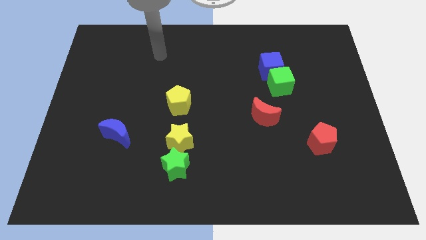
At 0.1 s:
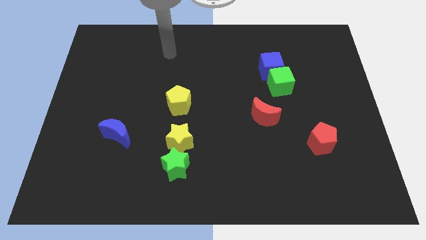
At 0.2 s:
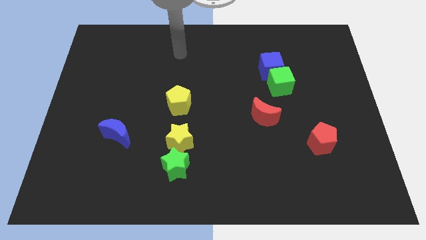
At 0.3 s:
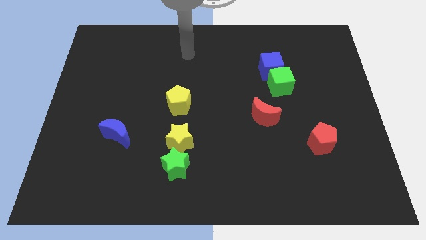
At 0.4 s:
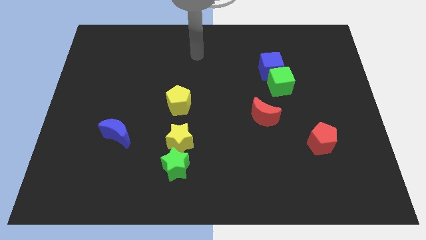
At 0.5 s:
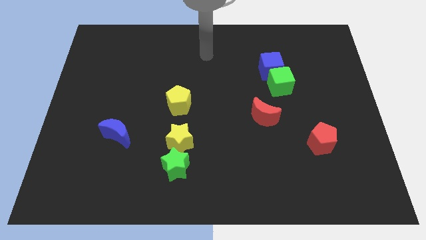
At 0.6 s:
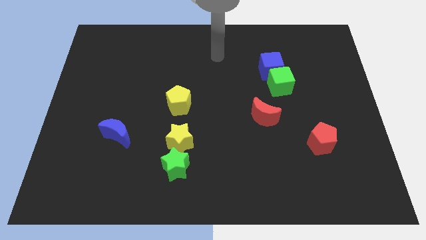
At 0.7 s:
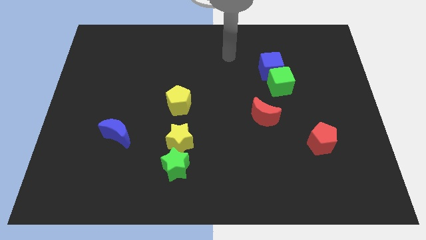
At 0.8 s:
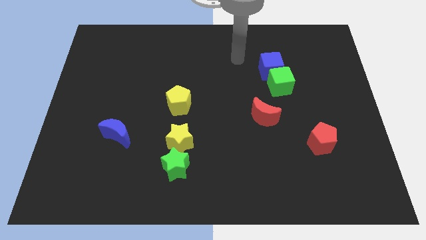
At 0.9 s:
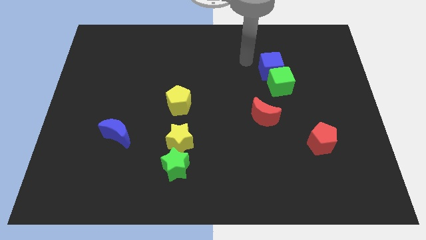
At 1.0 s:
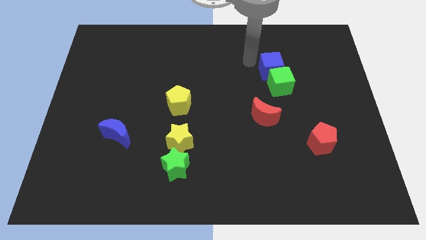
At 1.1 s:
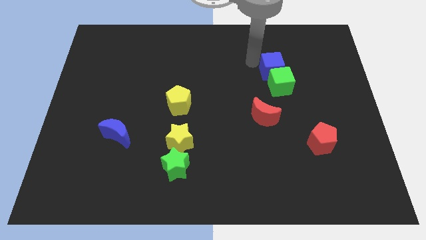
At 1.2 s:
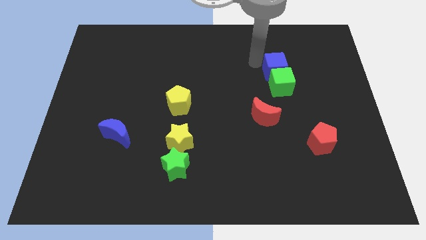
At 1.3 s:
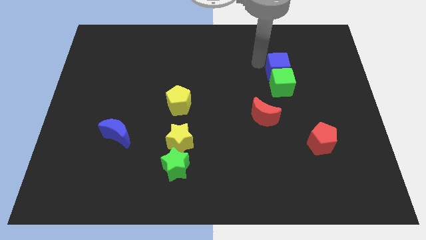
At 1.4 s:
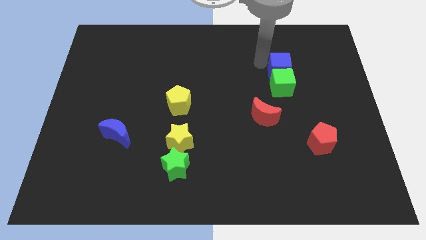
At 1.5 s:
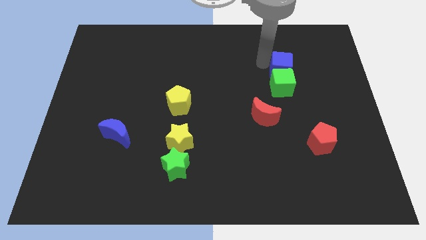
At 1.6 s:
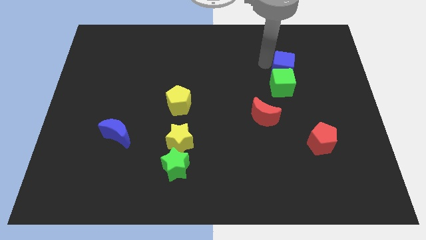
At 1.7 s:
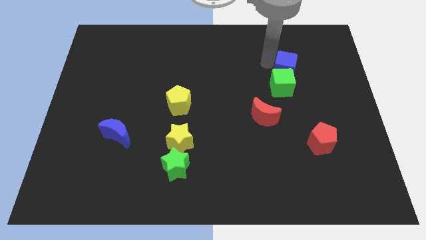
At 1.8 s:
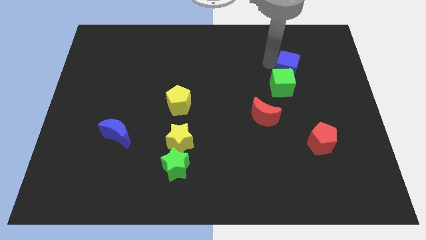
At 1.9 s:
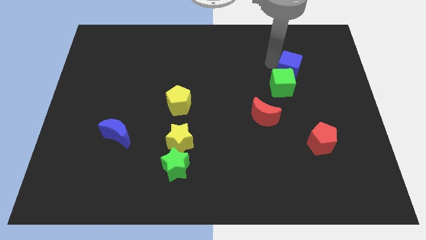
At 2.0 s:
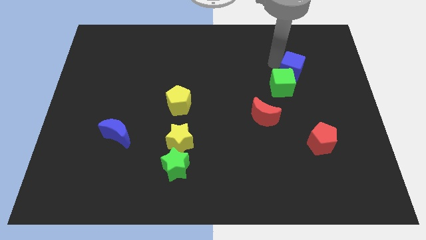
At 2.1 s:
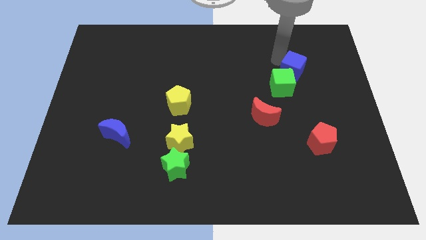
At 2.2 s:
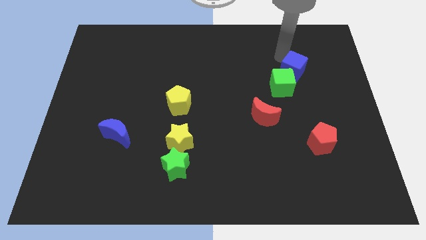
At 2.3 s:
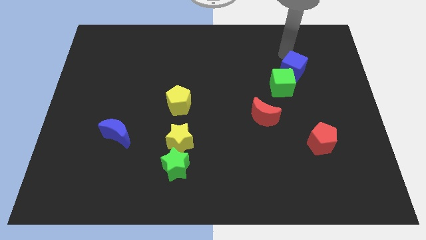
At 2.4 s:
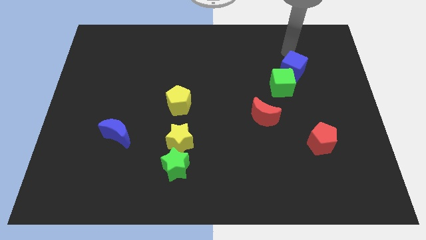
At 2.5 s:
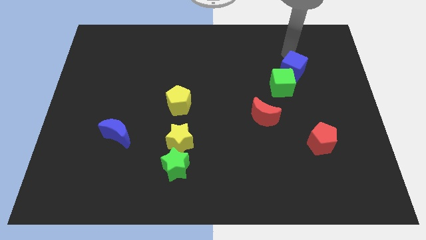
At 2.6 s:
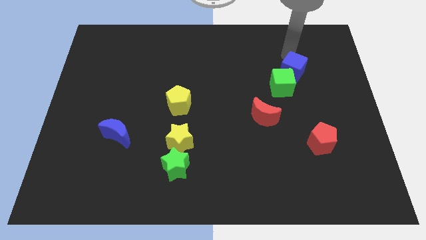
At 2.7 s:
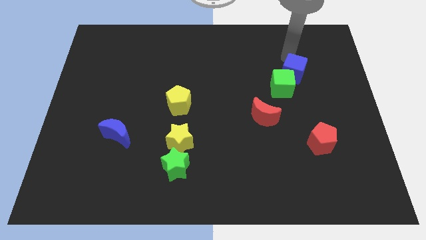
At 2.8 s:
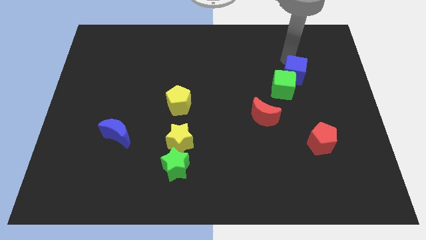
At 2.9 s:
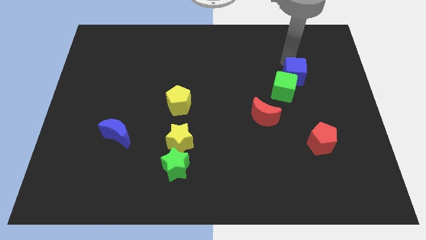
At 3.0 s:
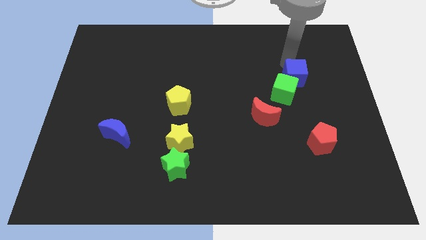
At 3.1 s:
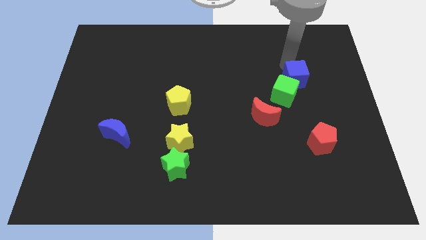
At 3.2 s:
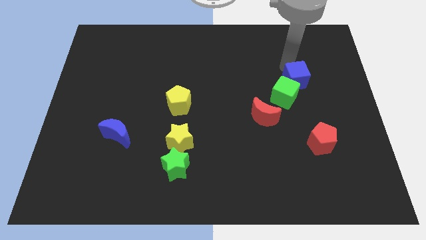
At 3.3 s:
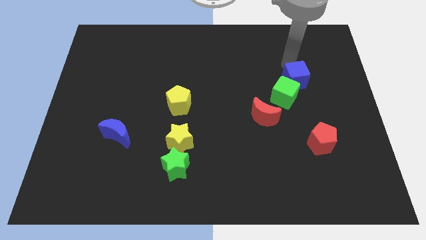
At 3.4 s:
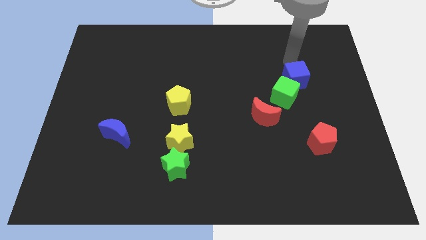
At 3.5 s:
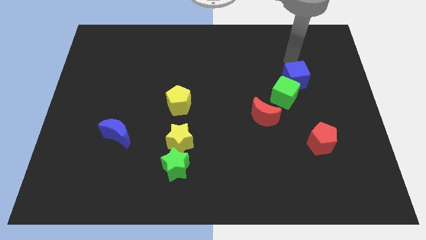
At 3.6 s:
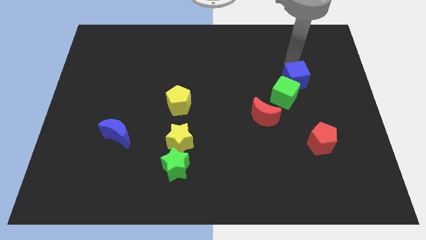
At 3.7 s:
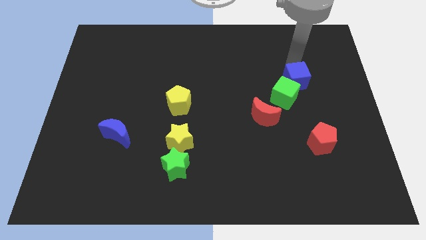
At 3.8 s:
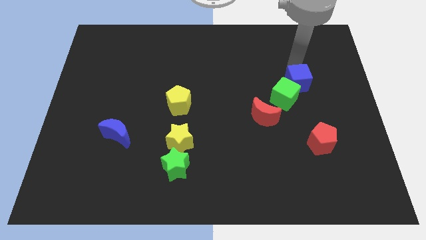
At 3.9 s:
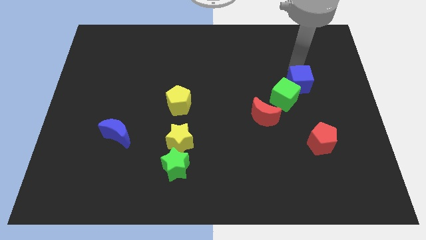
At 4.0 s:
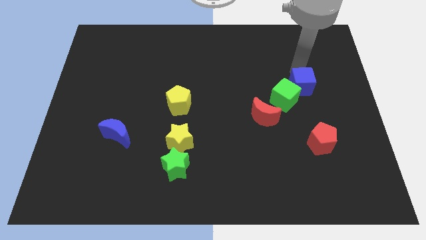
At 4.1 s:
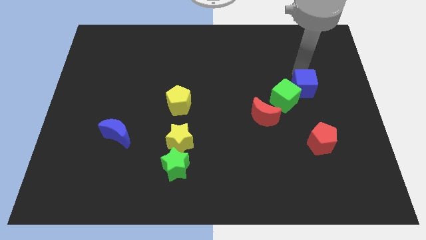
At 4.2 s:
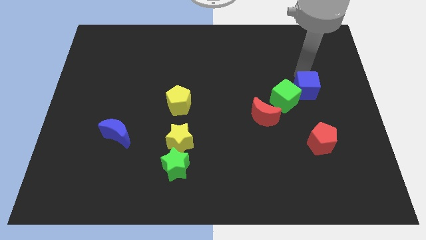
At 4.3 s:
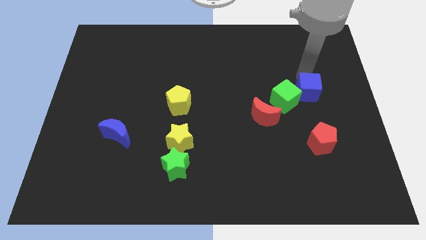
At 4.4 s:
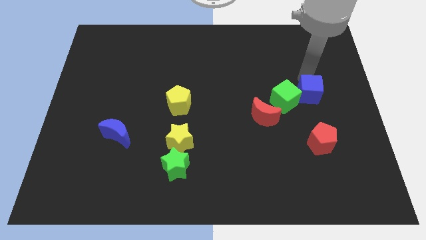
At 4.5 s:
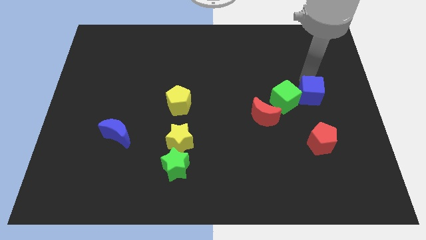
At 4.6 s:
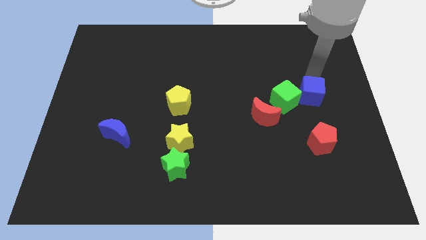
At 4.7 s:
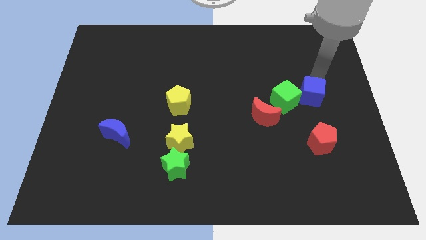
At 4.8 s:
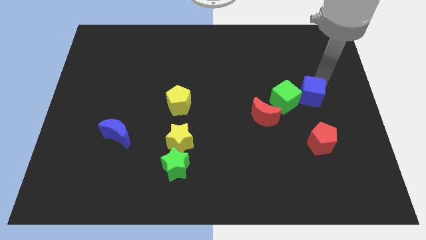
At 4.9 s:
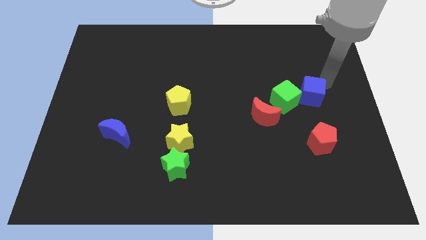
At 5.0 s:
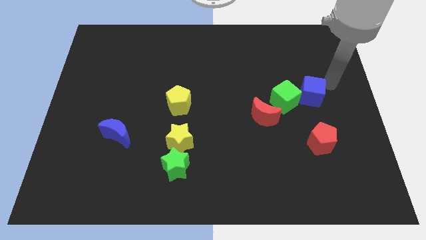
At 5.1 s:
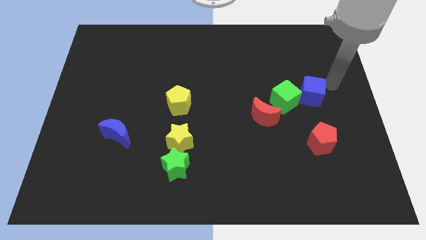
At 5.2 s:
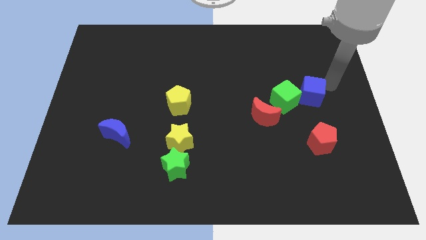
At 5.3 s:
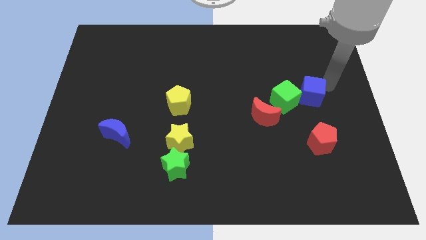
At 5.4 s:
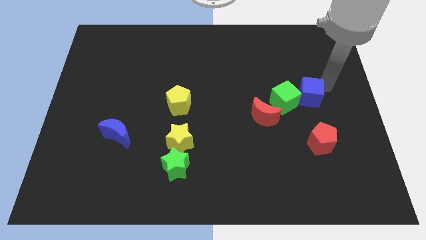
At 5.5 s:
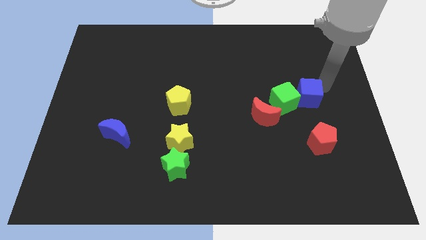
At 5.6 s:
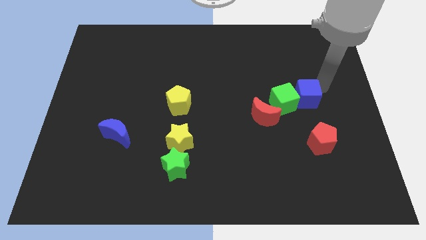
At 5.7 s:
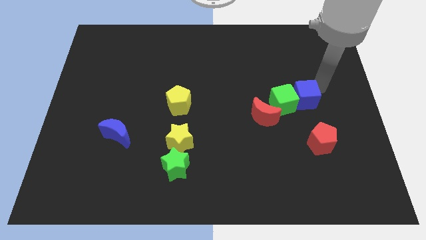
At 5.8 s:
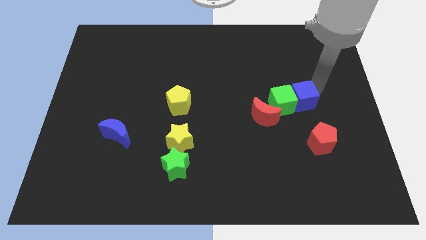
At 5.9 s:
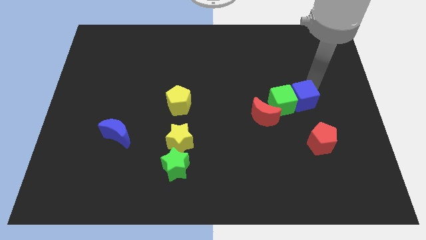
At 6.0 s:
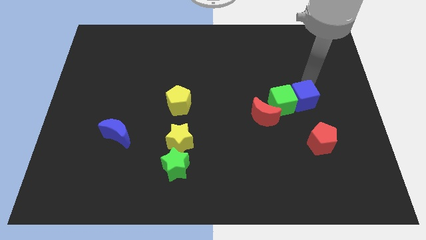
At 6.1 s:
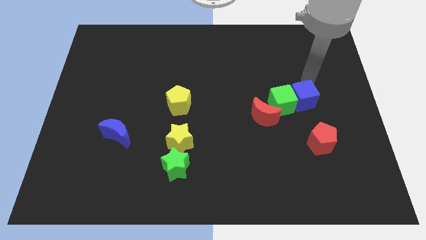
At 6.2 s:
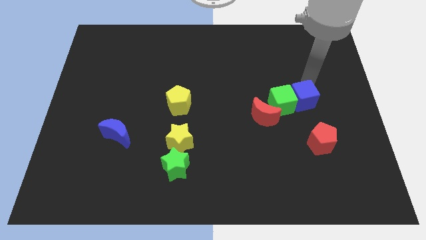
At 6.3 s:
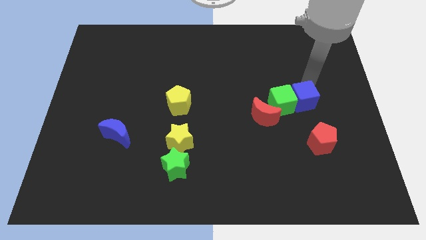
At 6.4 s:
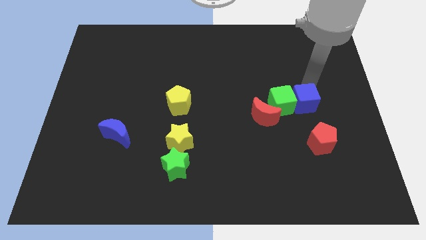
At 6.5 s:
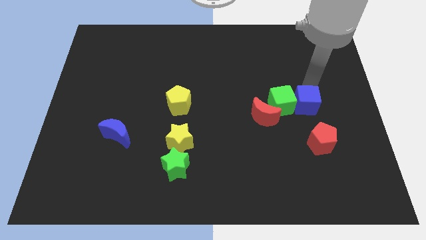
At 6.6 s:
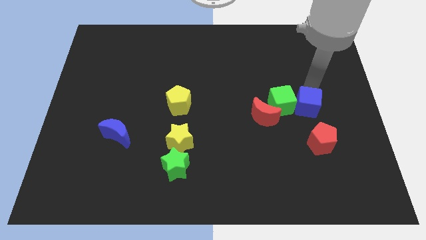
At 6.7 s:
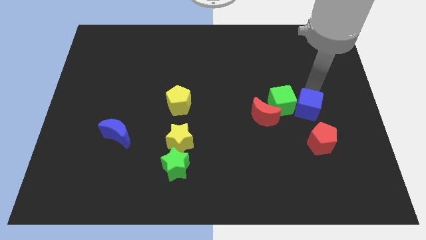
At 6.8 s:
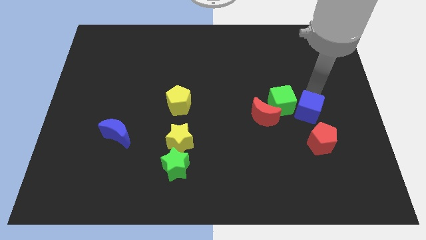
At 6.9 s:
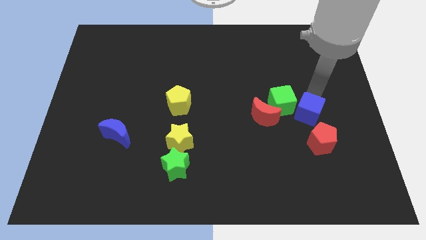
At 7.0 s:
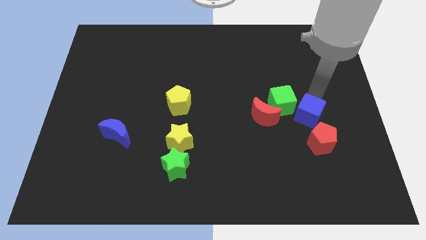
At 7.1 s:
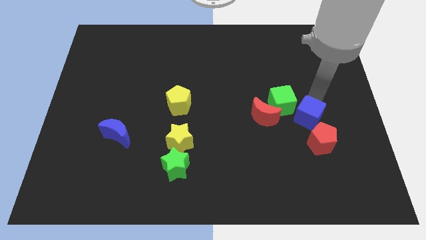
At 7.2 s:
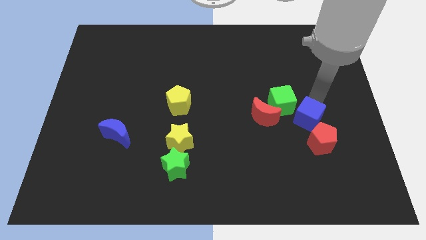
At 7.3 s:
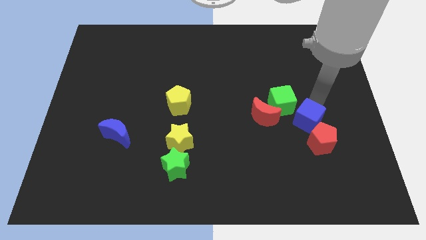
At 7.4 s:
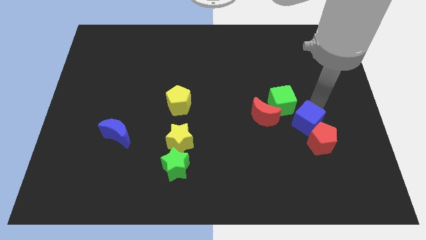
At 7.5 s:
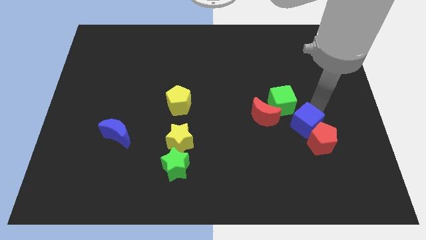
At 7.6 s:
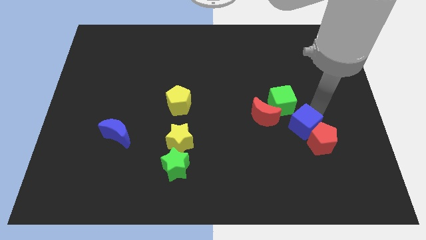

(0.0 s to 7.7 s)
push the blue cube to the bottom right side of the red moon
